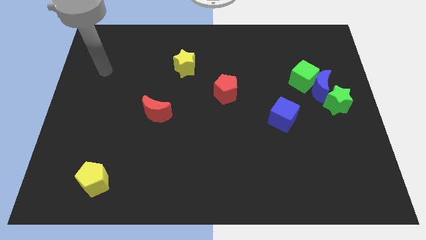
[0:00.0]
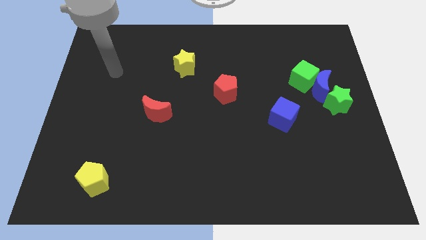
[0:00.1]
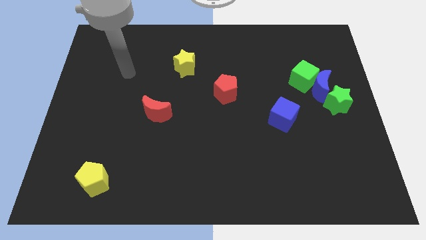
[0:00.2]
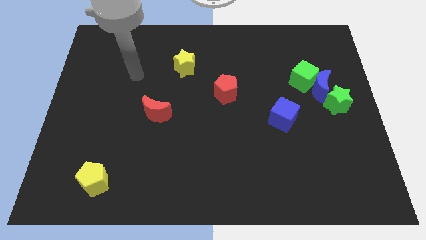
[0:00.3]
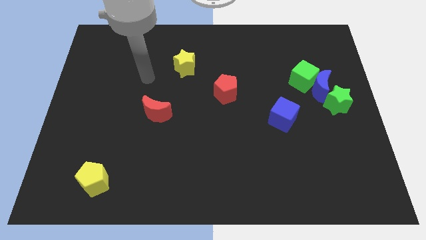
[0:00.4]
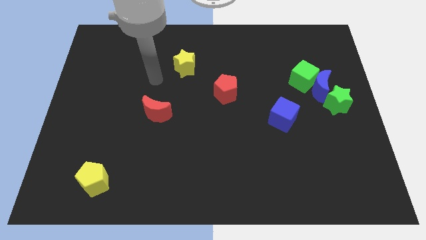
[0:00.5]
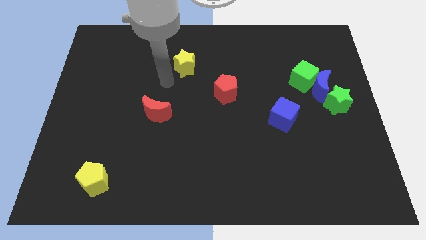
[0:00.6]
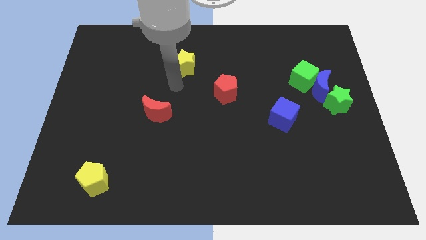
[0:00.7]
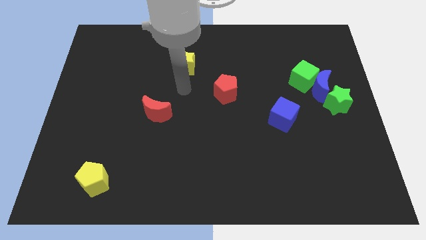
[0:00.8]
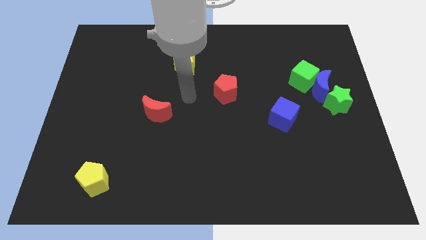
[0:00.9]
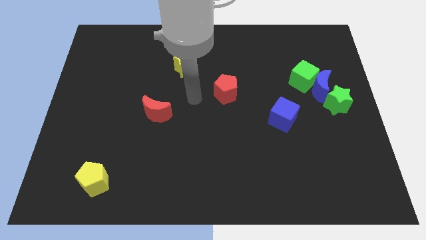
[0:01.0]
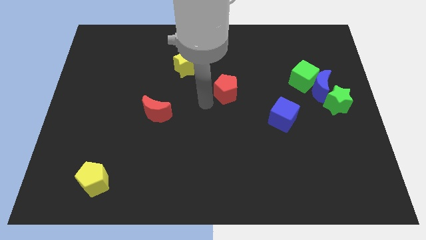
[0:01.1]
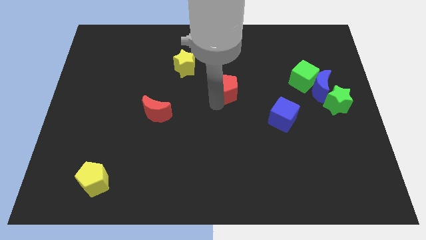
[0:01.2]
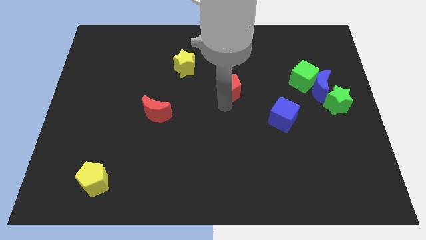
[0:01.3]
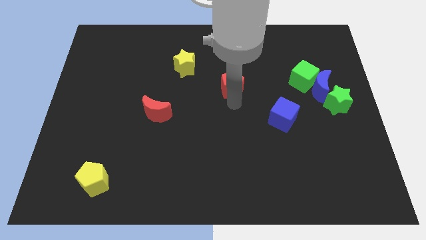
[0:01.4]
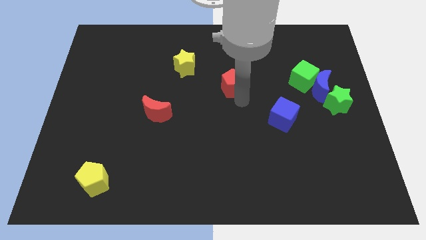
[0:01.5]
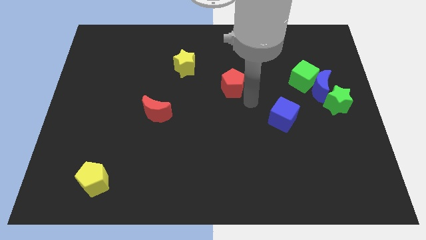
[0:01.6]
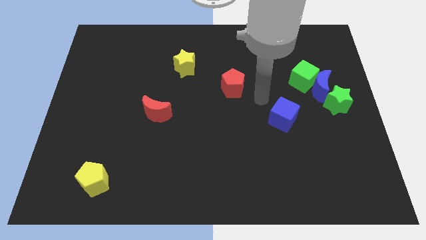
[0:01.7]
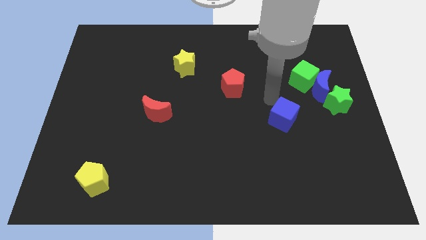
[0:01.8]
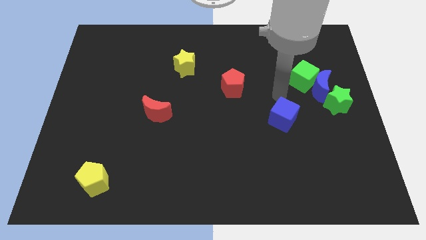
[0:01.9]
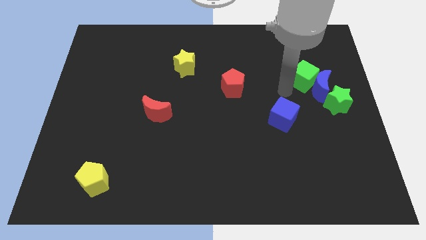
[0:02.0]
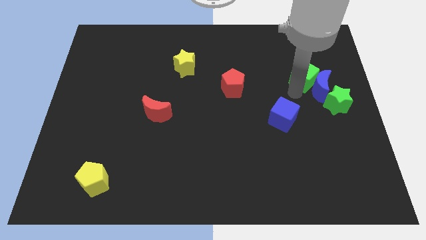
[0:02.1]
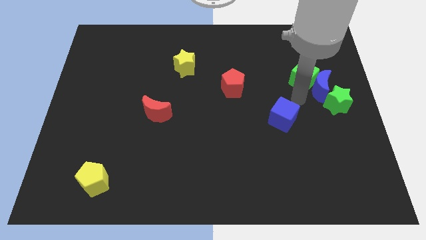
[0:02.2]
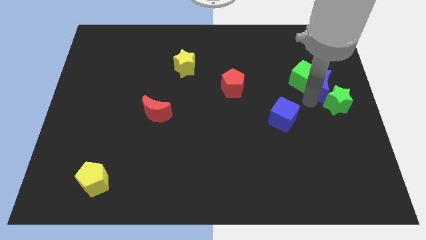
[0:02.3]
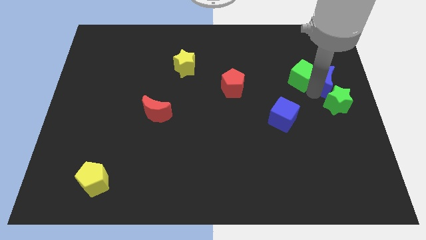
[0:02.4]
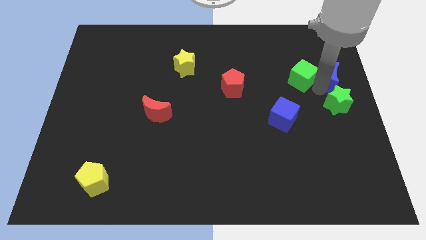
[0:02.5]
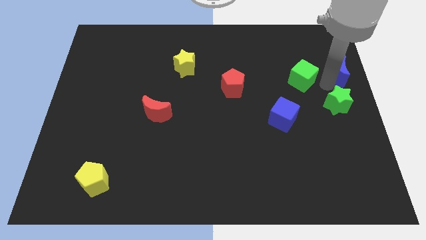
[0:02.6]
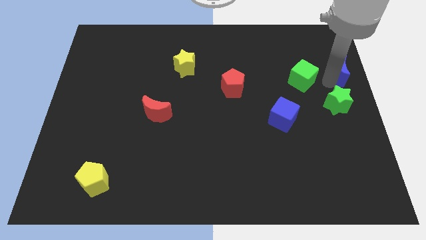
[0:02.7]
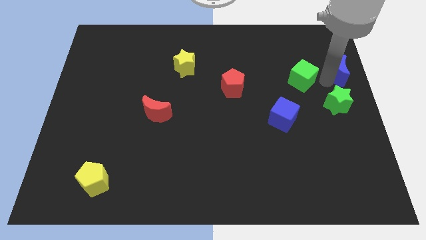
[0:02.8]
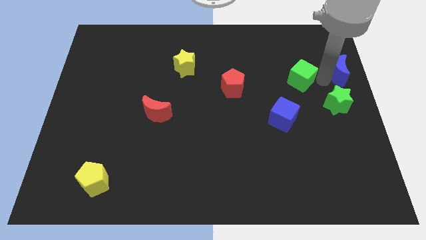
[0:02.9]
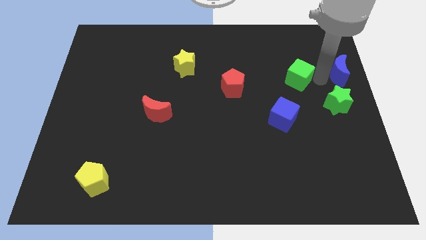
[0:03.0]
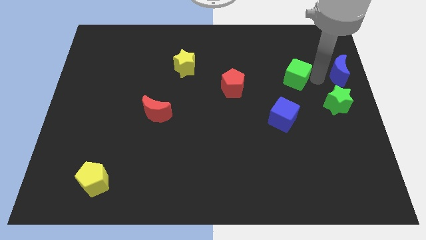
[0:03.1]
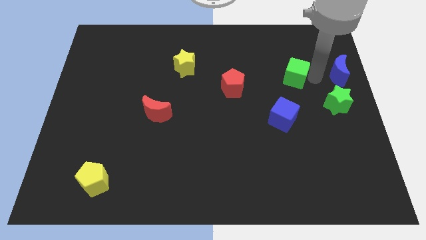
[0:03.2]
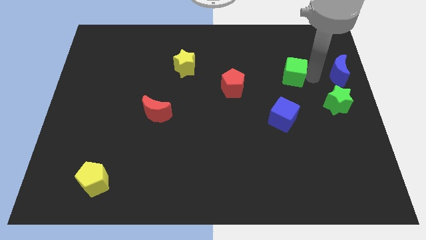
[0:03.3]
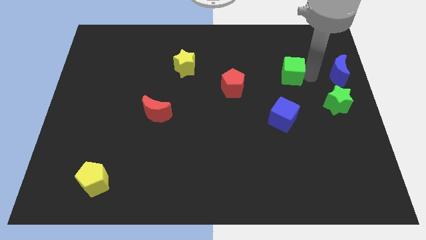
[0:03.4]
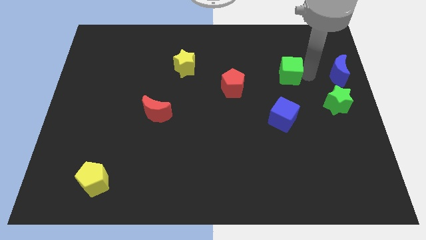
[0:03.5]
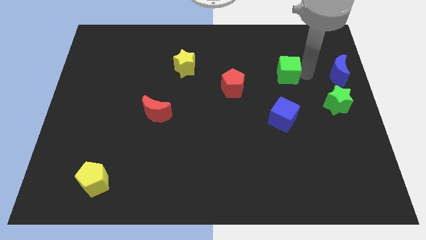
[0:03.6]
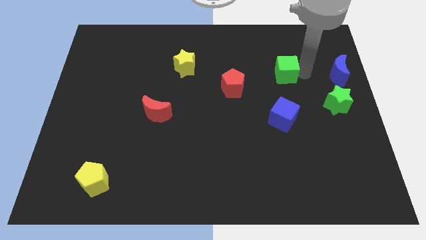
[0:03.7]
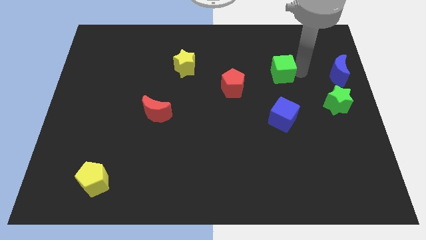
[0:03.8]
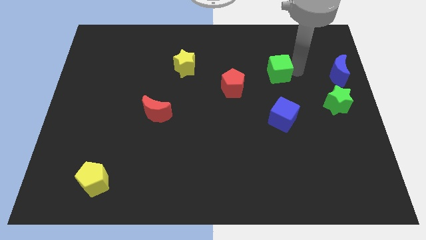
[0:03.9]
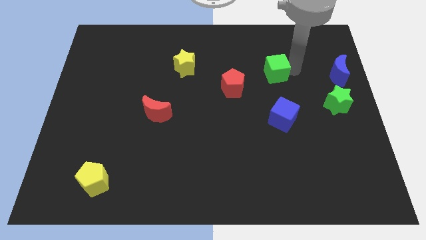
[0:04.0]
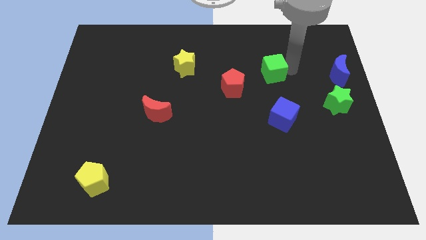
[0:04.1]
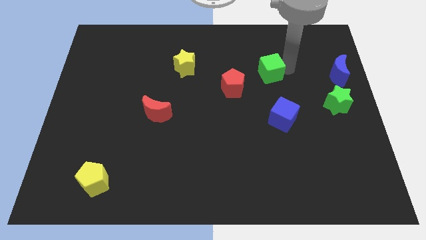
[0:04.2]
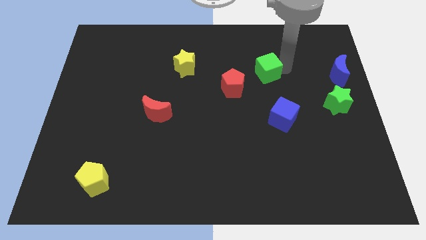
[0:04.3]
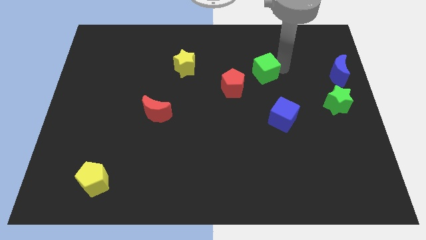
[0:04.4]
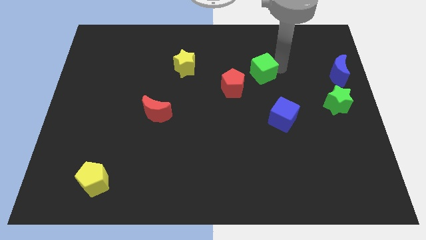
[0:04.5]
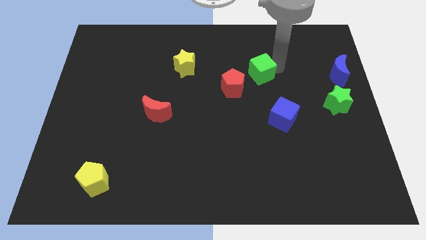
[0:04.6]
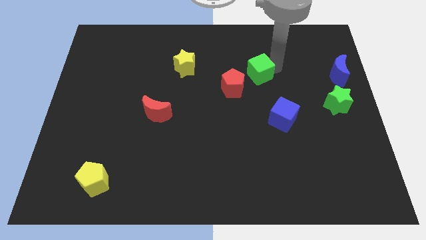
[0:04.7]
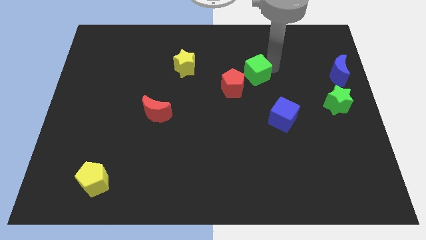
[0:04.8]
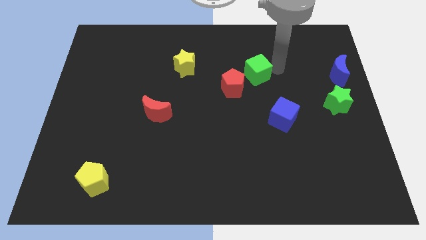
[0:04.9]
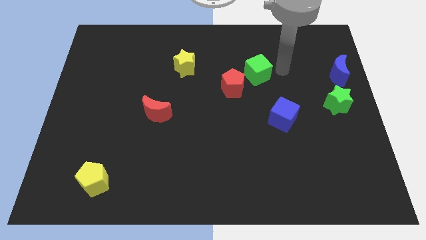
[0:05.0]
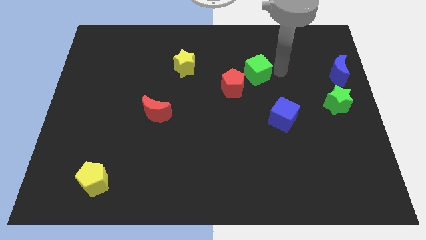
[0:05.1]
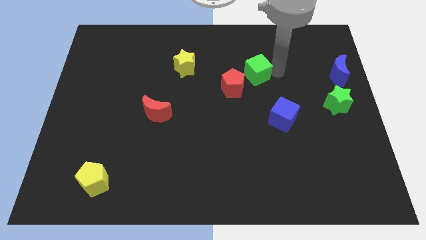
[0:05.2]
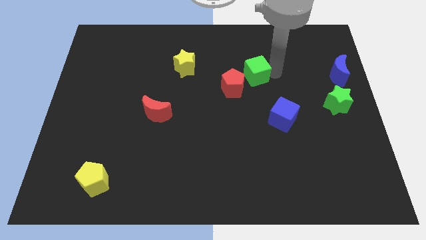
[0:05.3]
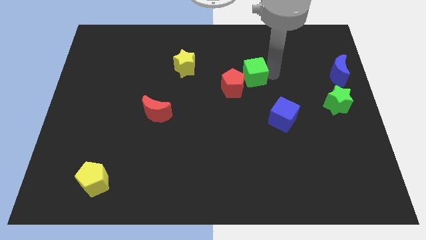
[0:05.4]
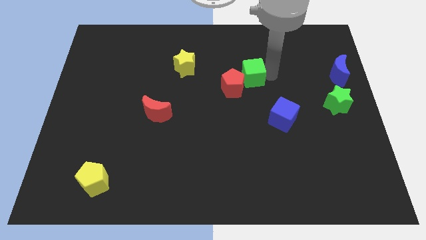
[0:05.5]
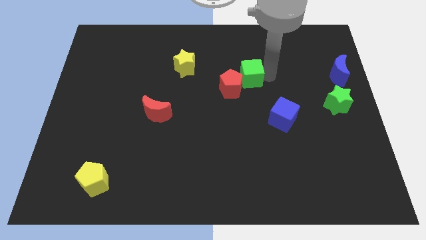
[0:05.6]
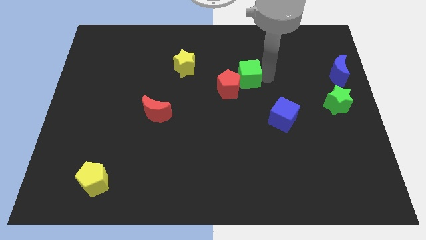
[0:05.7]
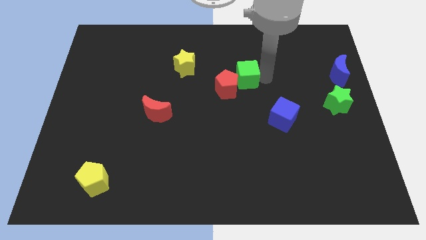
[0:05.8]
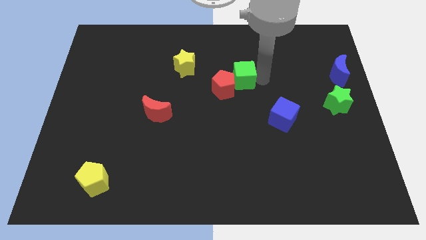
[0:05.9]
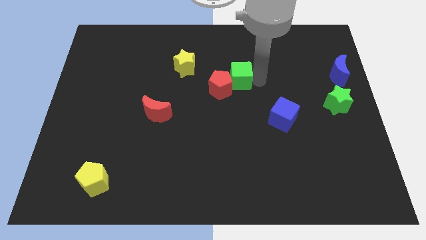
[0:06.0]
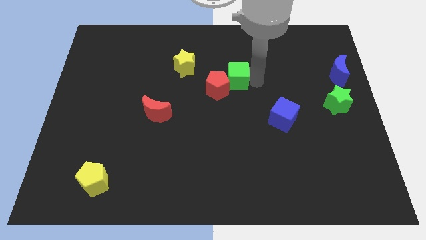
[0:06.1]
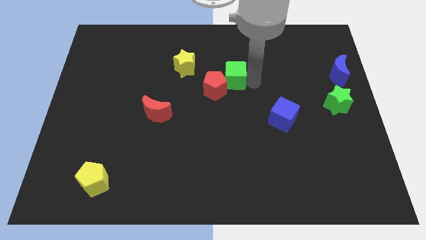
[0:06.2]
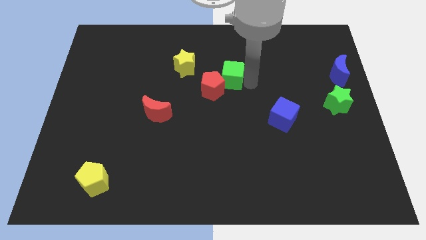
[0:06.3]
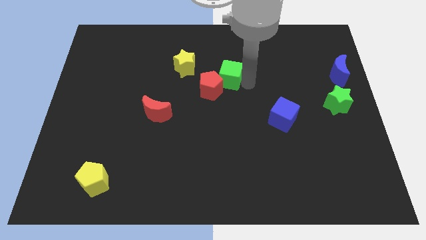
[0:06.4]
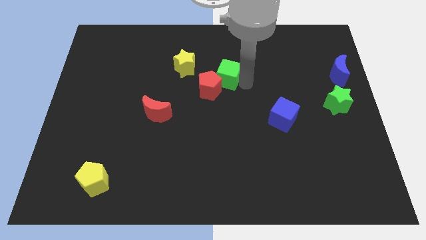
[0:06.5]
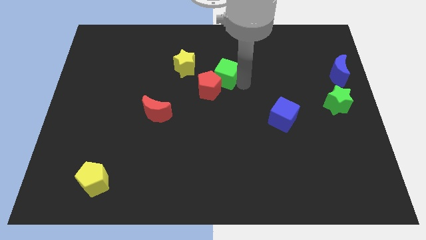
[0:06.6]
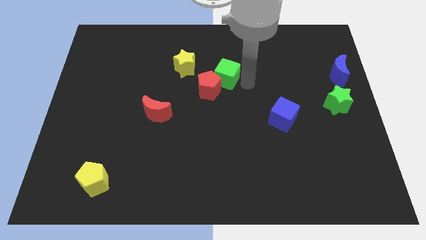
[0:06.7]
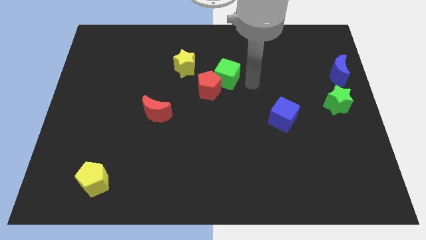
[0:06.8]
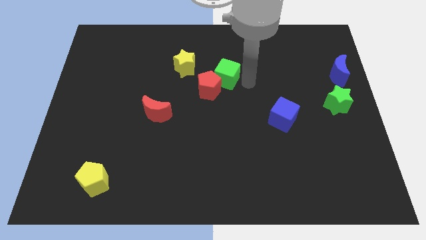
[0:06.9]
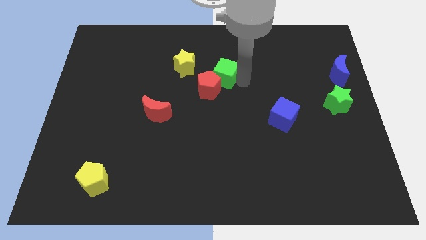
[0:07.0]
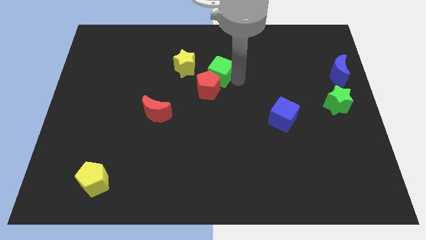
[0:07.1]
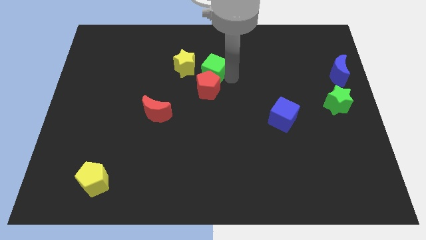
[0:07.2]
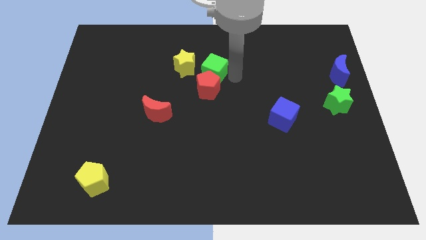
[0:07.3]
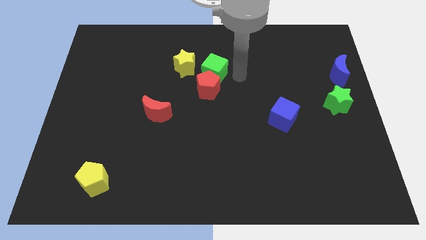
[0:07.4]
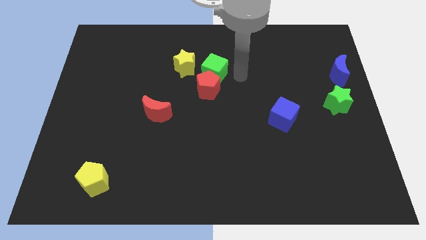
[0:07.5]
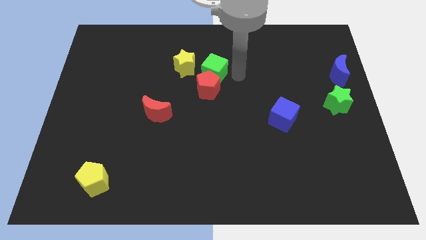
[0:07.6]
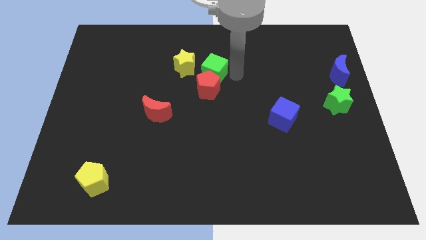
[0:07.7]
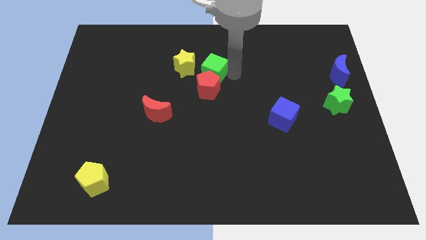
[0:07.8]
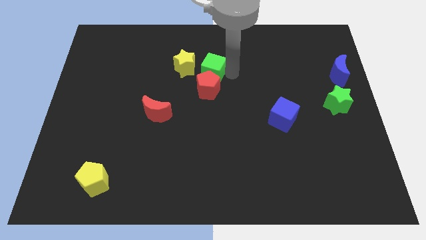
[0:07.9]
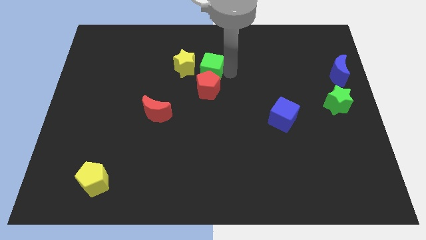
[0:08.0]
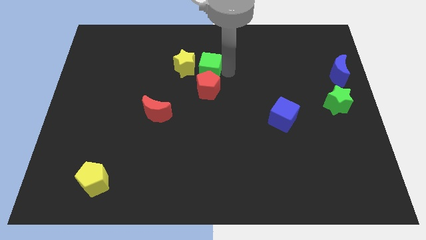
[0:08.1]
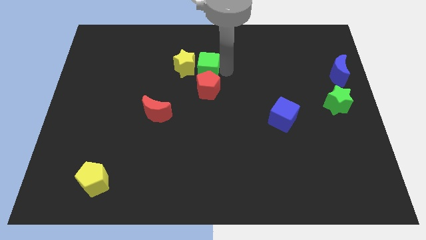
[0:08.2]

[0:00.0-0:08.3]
put the green cube towards the yellow star
